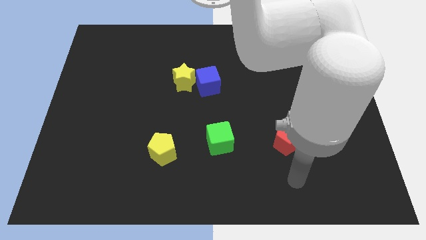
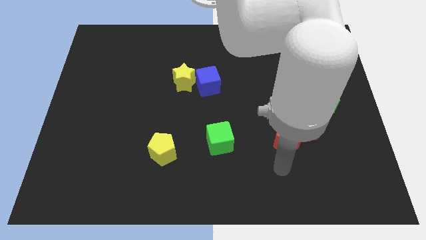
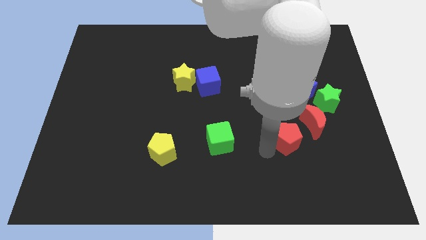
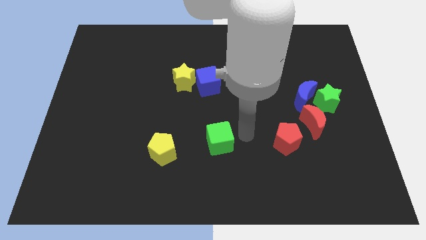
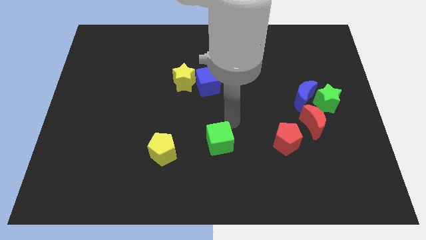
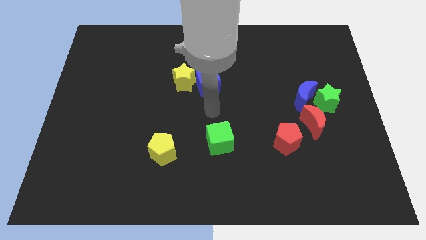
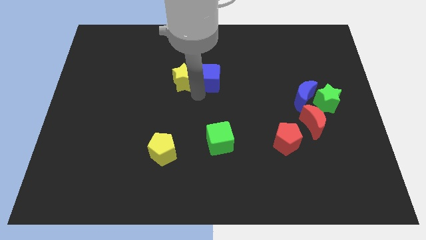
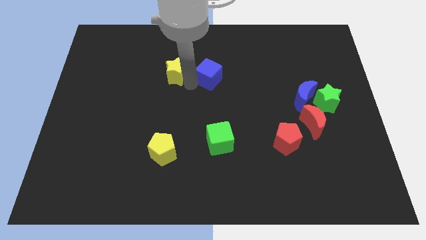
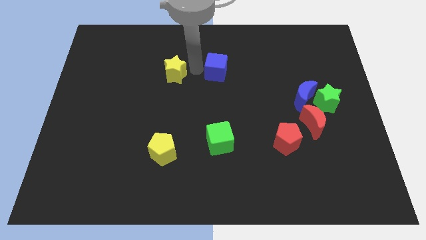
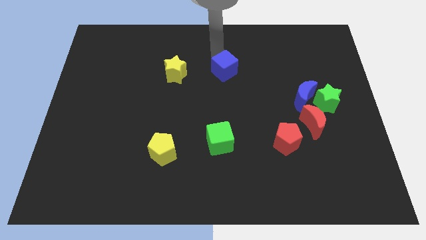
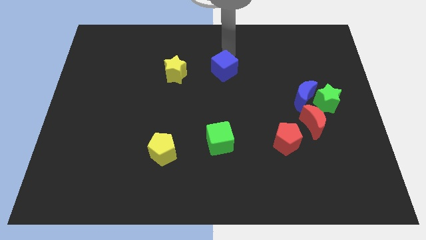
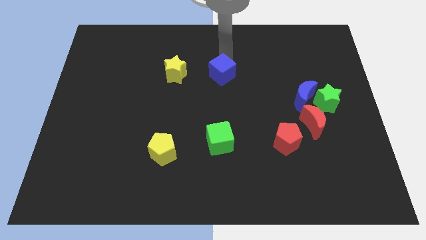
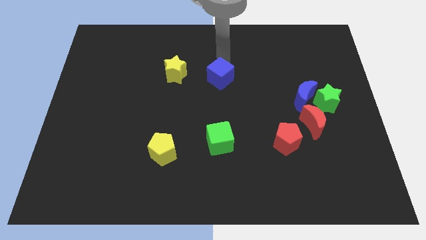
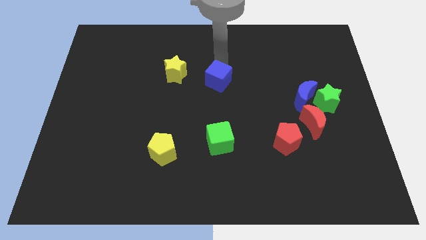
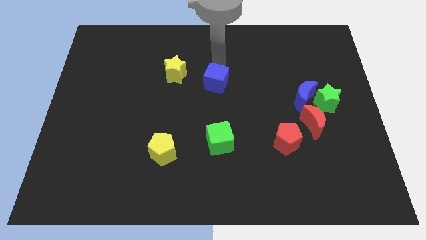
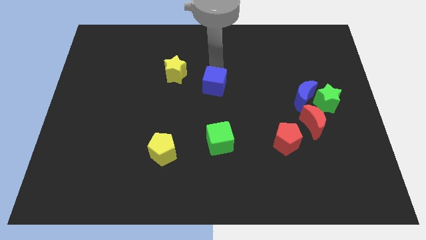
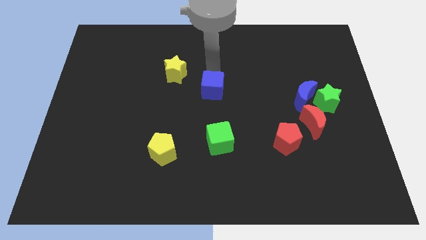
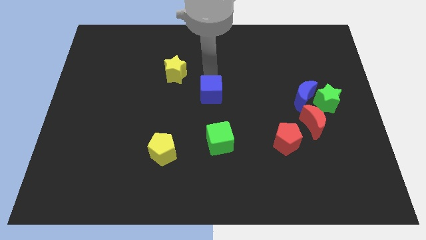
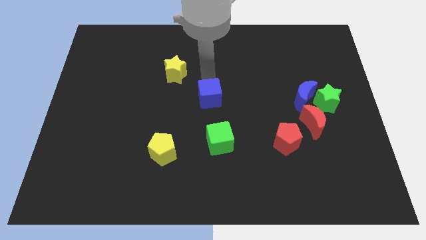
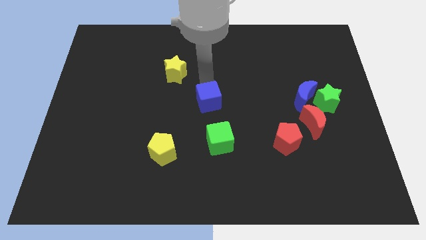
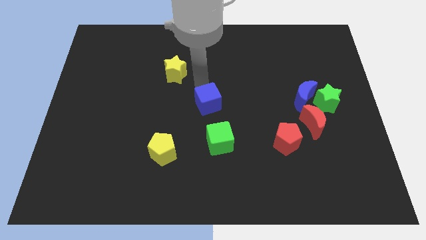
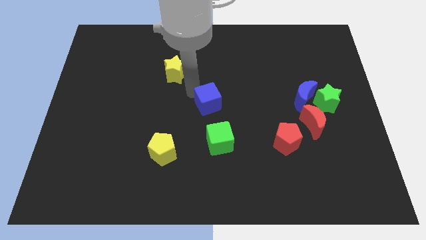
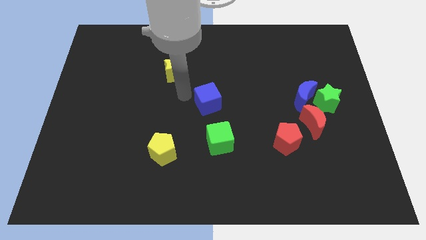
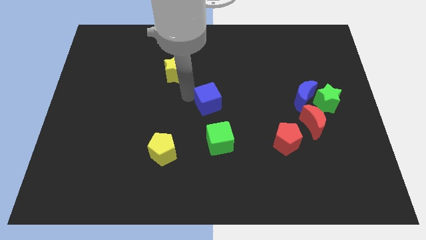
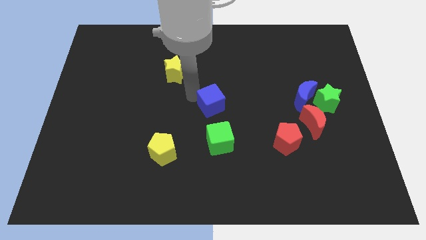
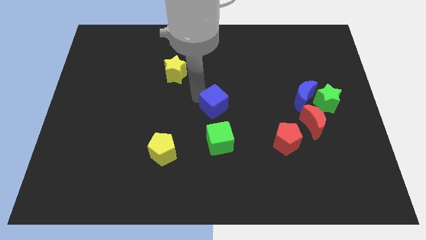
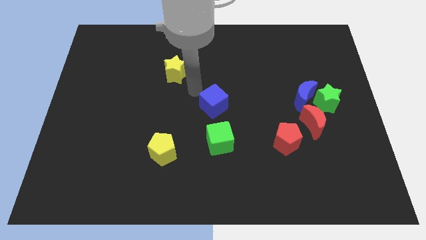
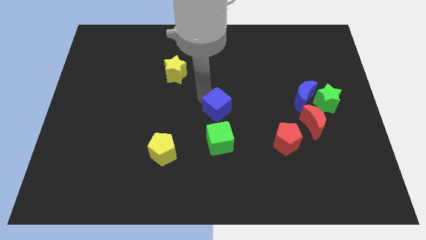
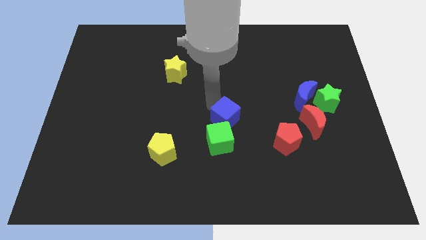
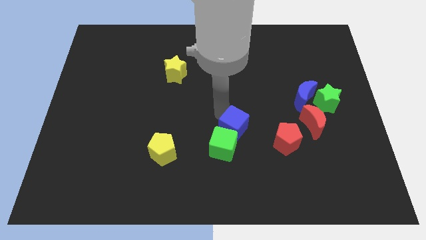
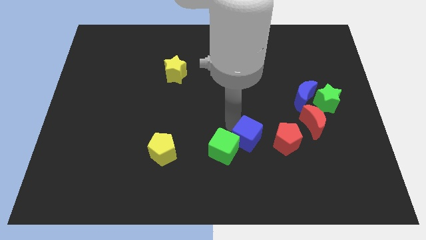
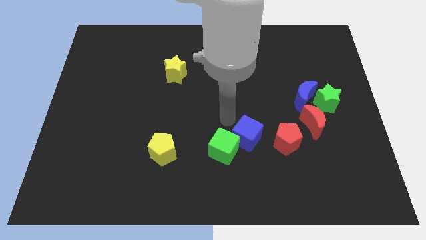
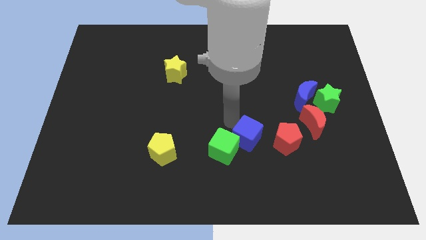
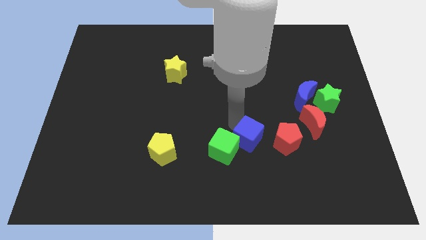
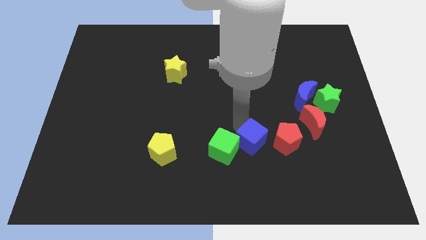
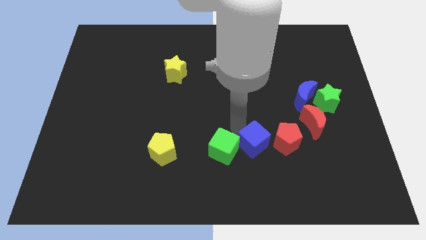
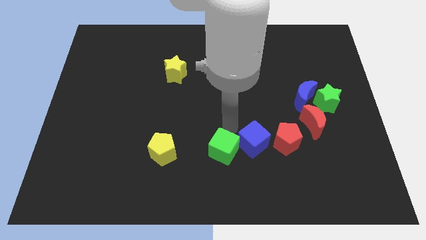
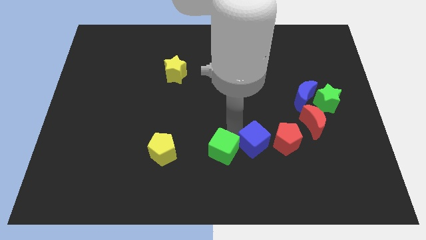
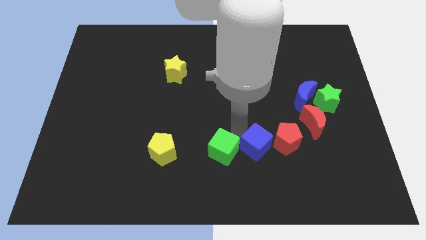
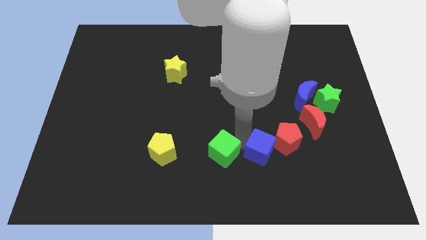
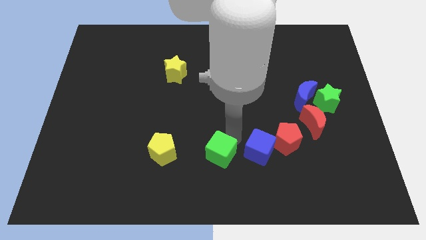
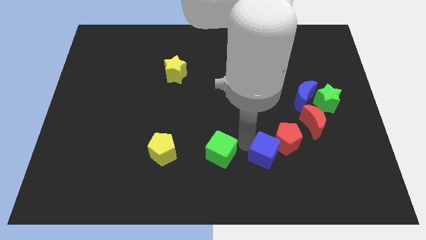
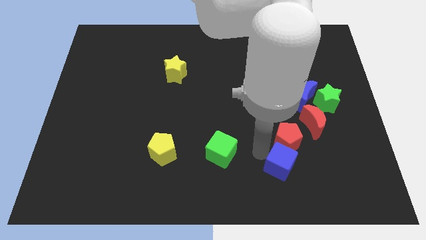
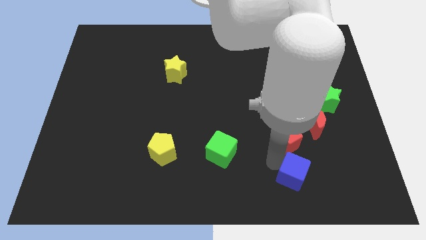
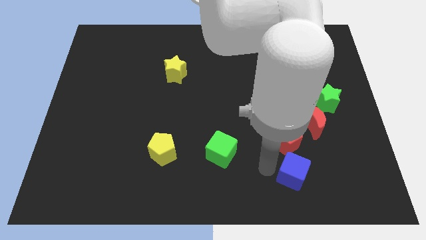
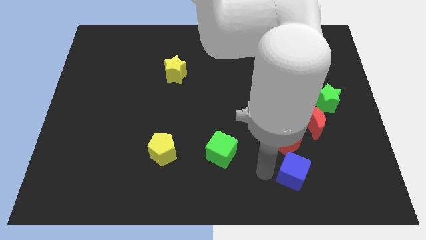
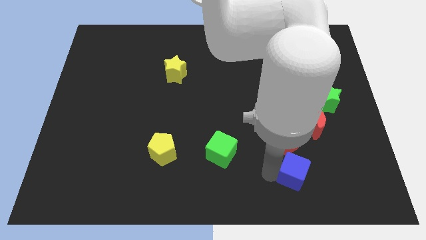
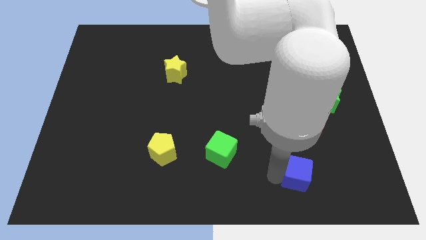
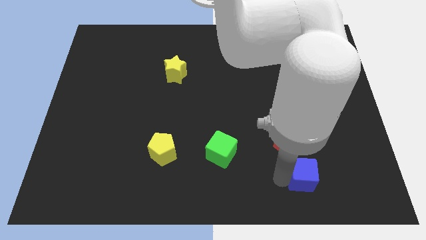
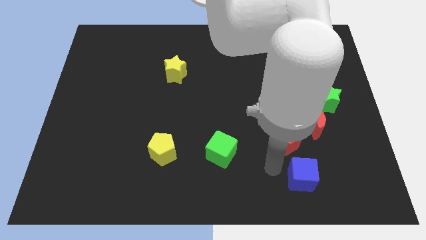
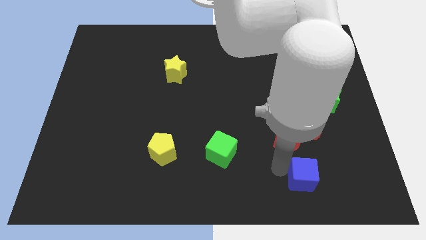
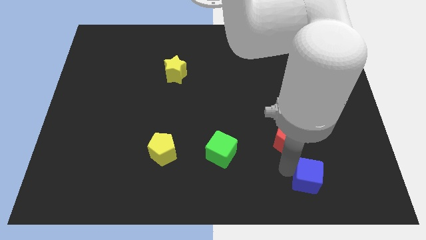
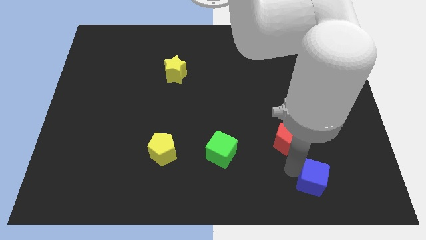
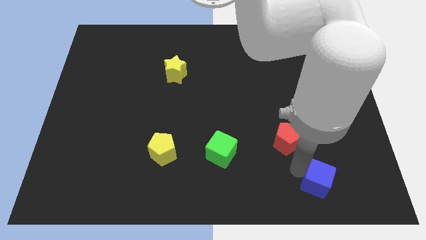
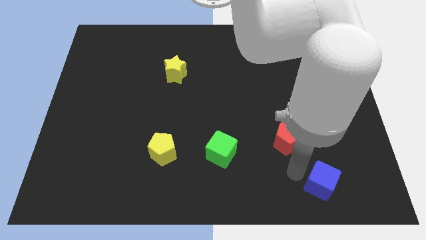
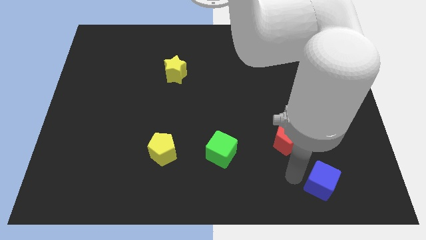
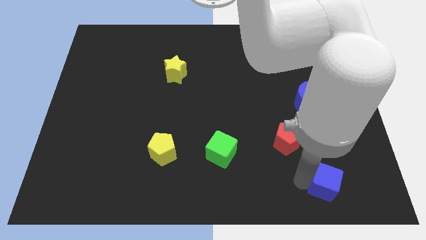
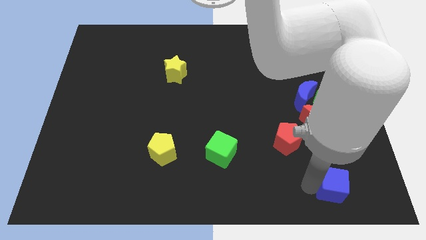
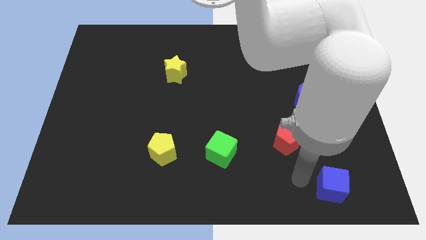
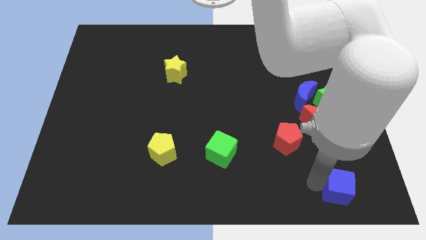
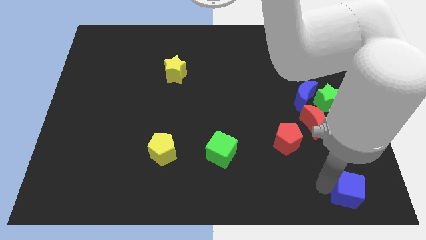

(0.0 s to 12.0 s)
push the blue cube to the lower right corner
